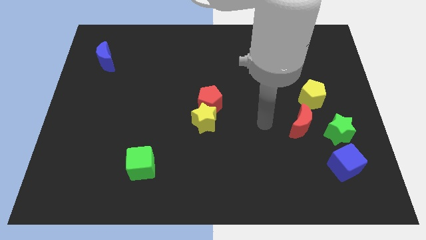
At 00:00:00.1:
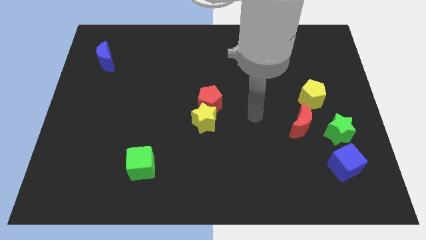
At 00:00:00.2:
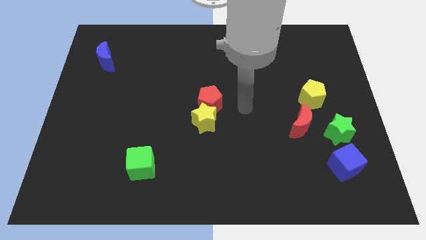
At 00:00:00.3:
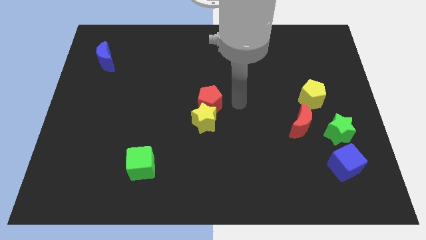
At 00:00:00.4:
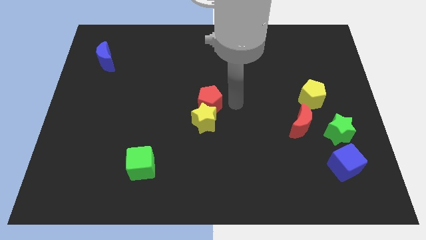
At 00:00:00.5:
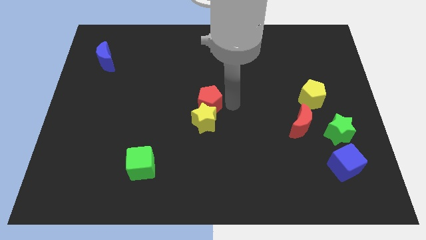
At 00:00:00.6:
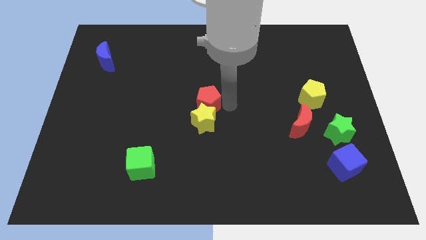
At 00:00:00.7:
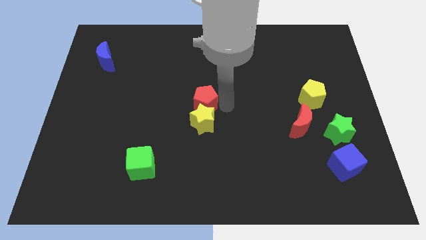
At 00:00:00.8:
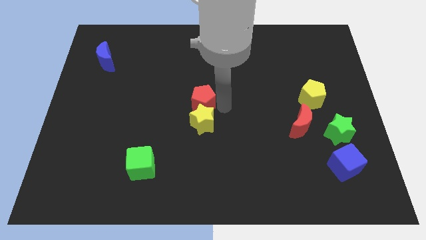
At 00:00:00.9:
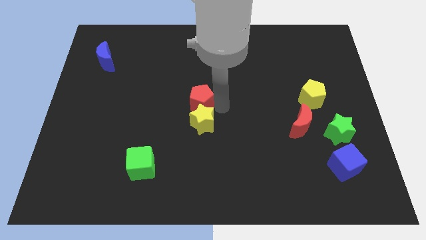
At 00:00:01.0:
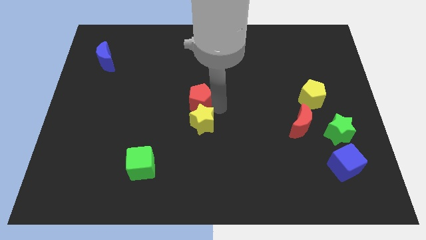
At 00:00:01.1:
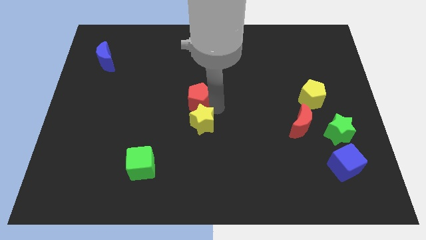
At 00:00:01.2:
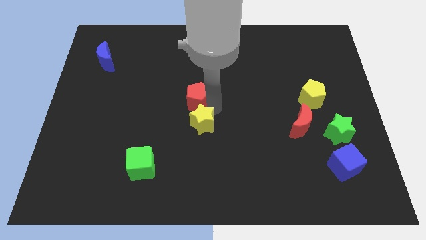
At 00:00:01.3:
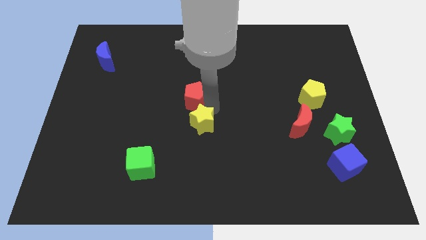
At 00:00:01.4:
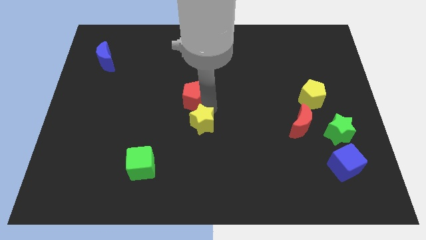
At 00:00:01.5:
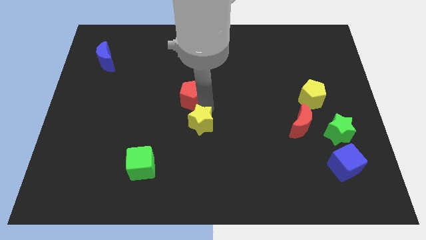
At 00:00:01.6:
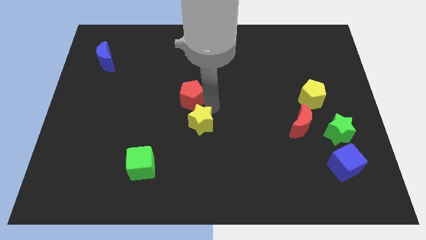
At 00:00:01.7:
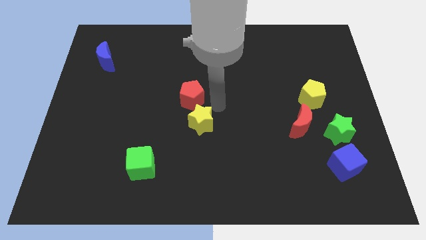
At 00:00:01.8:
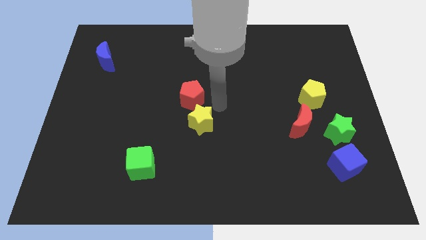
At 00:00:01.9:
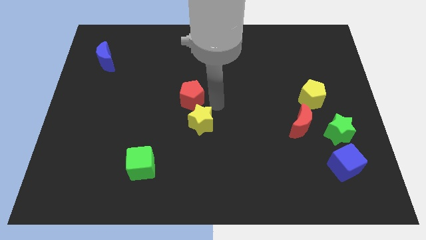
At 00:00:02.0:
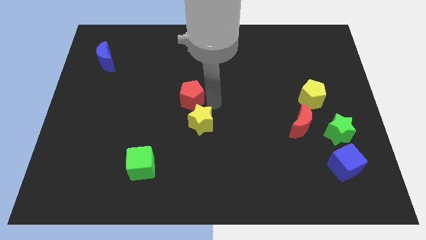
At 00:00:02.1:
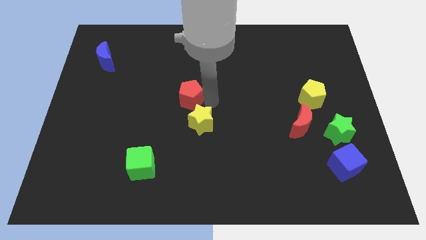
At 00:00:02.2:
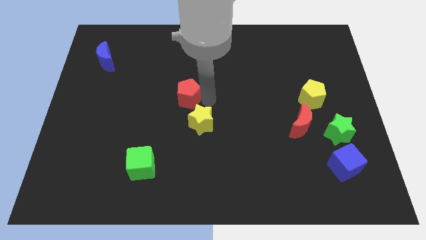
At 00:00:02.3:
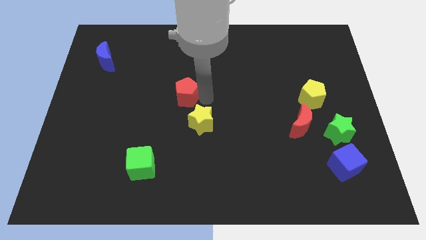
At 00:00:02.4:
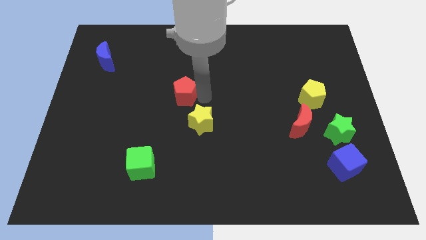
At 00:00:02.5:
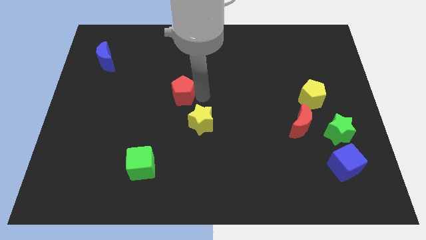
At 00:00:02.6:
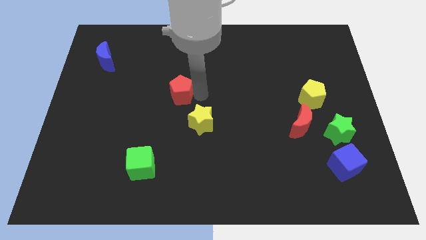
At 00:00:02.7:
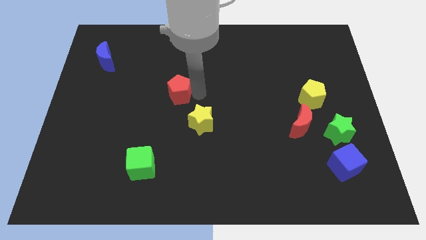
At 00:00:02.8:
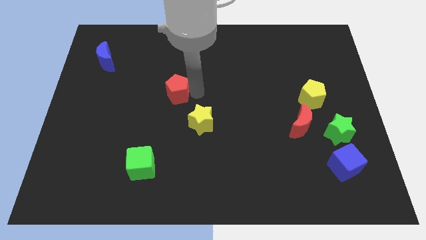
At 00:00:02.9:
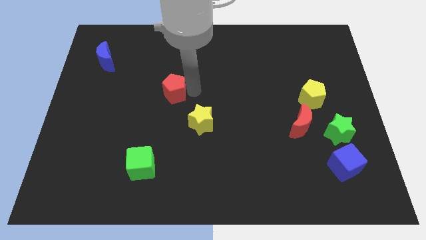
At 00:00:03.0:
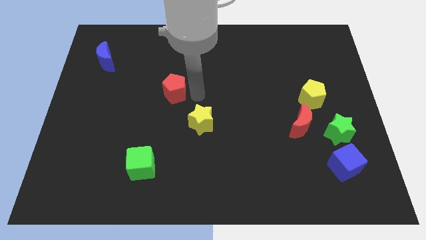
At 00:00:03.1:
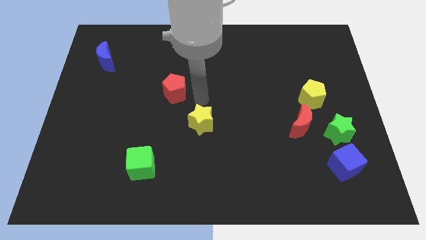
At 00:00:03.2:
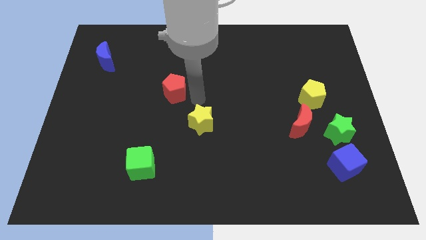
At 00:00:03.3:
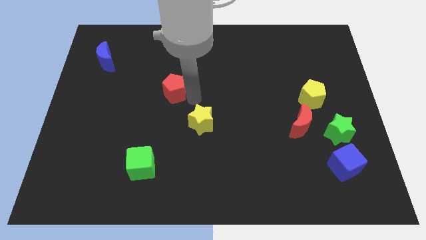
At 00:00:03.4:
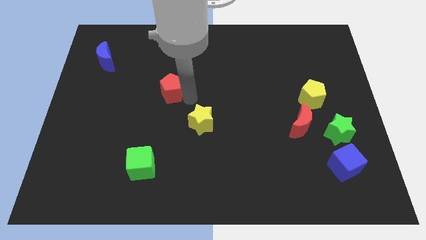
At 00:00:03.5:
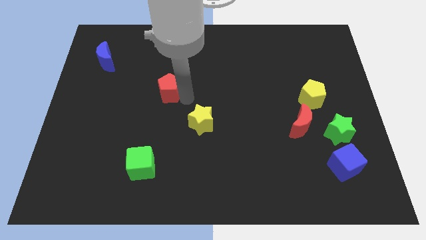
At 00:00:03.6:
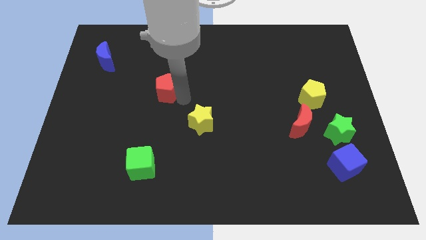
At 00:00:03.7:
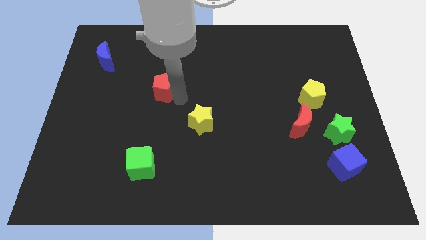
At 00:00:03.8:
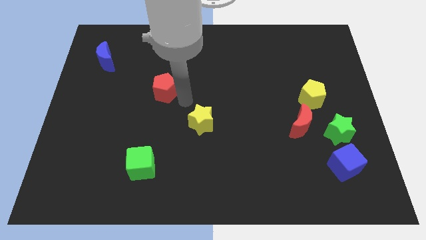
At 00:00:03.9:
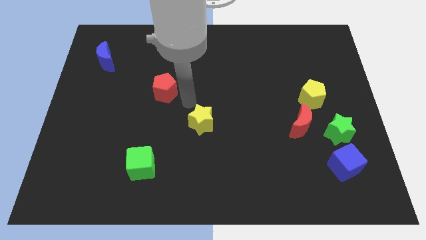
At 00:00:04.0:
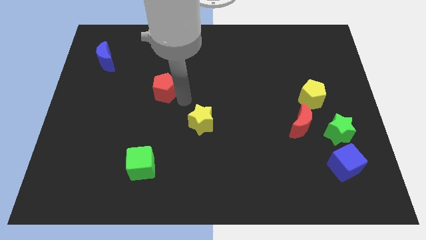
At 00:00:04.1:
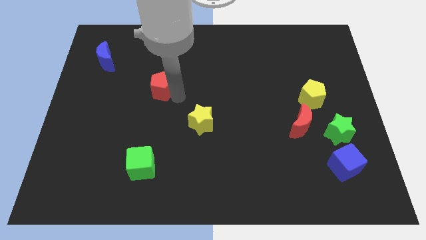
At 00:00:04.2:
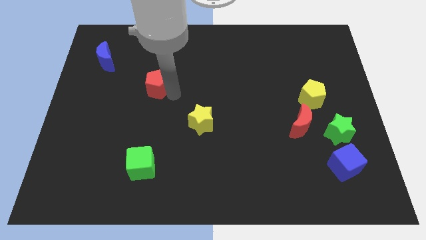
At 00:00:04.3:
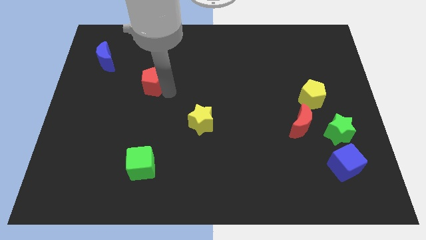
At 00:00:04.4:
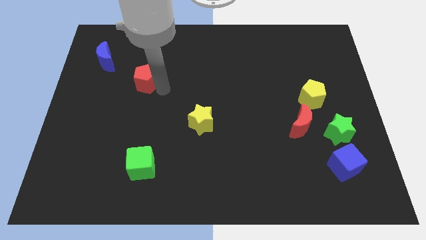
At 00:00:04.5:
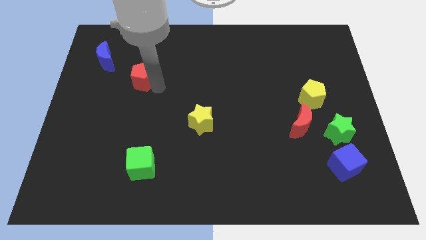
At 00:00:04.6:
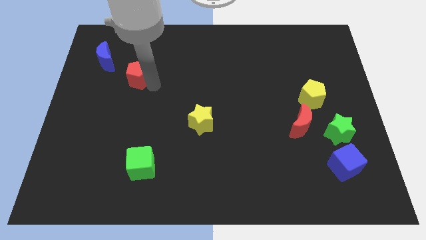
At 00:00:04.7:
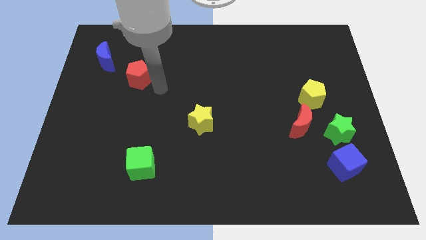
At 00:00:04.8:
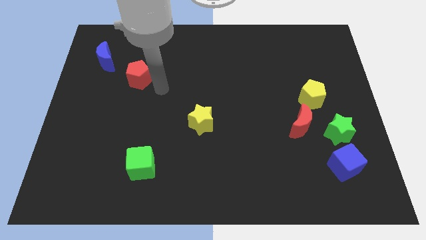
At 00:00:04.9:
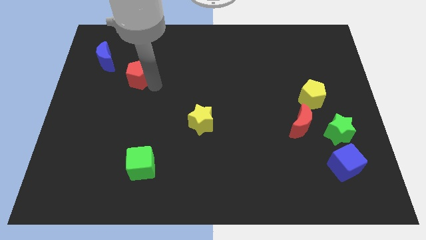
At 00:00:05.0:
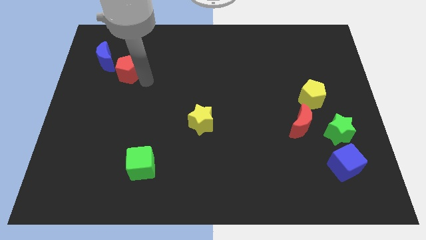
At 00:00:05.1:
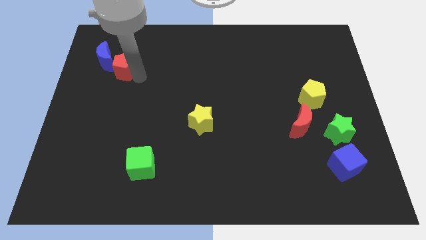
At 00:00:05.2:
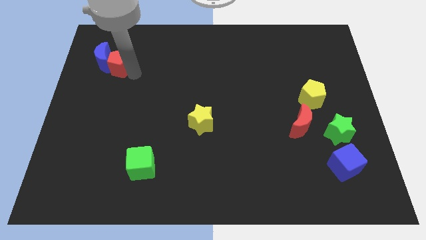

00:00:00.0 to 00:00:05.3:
put the red pentagon to the blue moon

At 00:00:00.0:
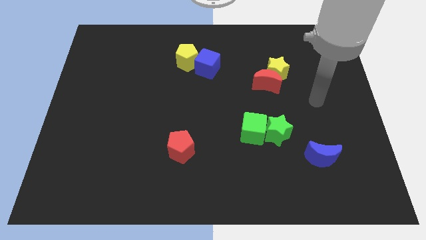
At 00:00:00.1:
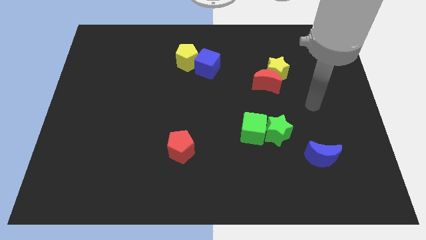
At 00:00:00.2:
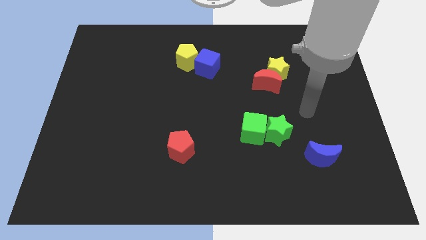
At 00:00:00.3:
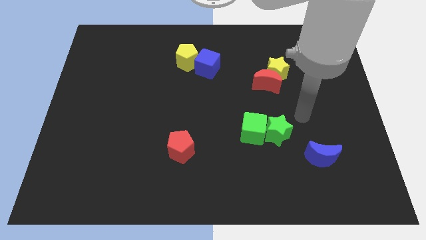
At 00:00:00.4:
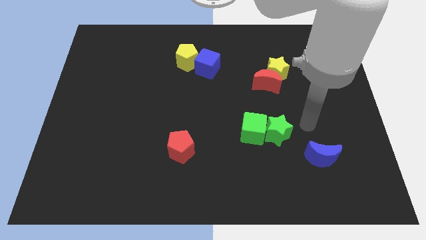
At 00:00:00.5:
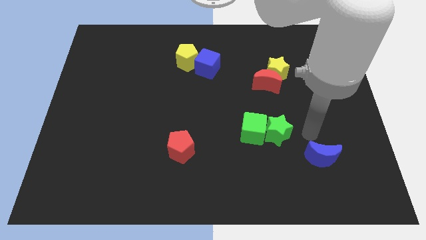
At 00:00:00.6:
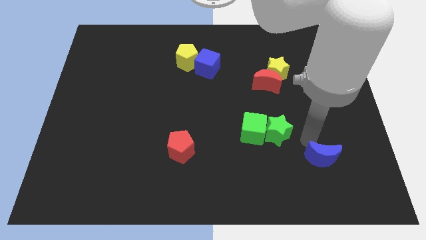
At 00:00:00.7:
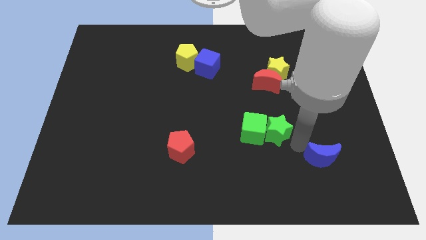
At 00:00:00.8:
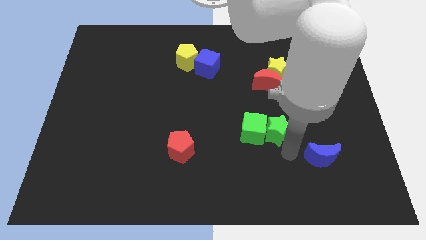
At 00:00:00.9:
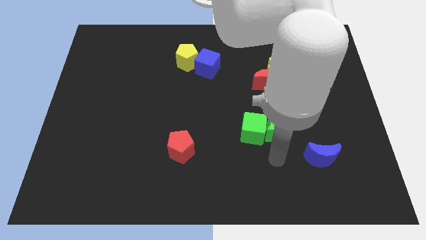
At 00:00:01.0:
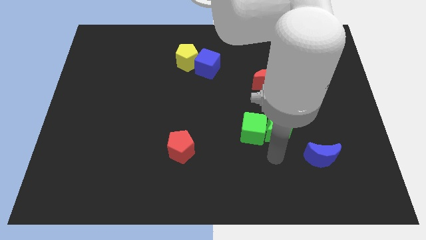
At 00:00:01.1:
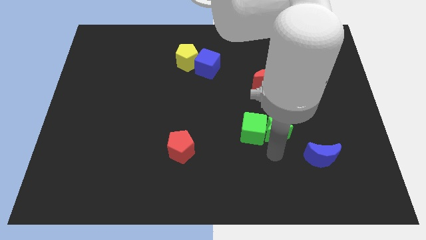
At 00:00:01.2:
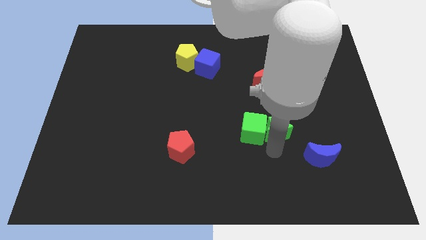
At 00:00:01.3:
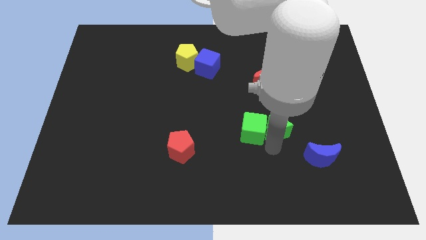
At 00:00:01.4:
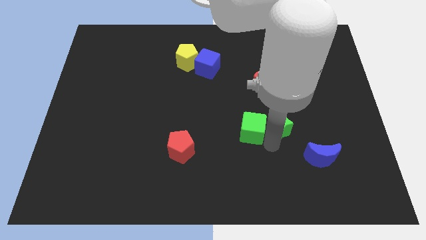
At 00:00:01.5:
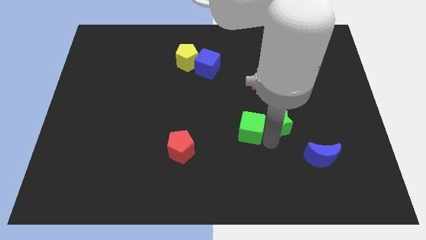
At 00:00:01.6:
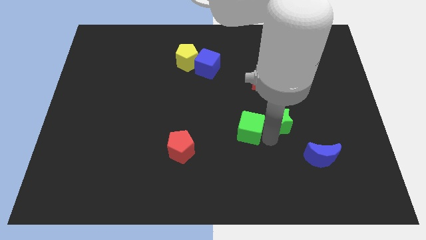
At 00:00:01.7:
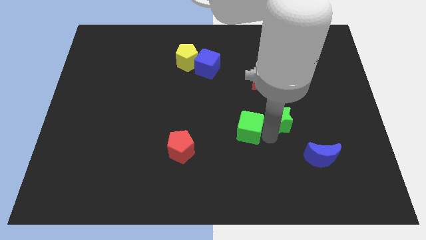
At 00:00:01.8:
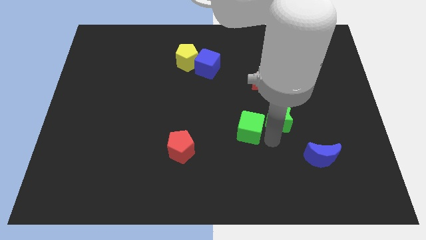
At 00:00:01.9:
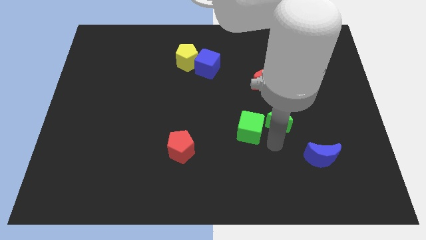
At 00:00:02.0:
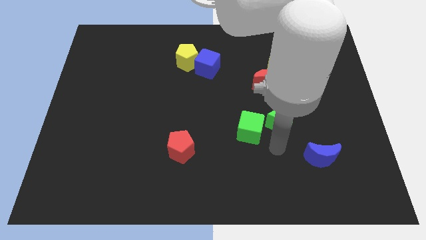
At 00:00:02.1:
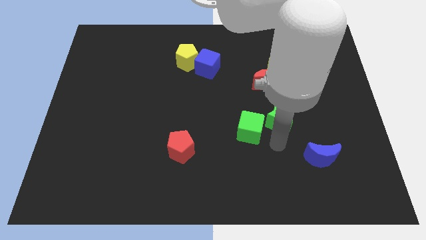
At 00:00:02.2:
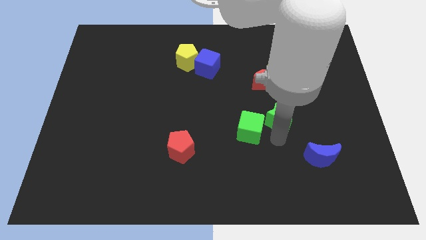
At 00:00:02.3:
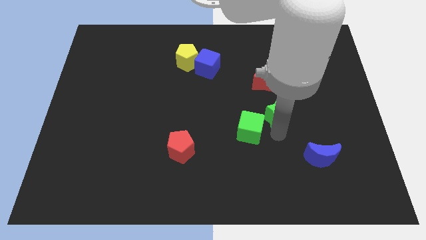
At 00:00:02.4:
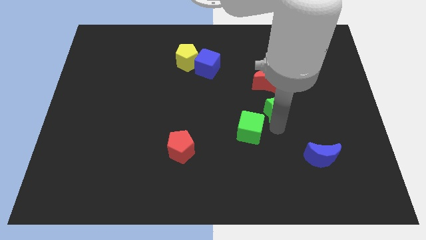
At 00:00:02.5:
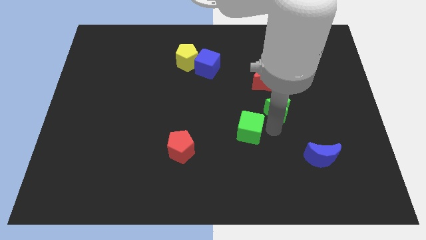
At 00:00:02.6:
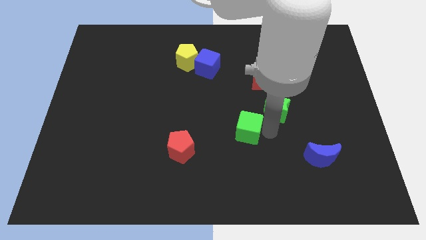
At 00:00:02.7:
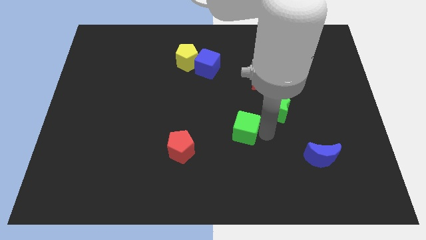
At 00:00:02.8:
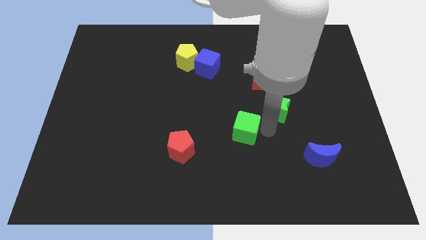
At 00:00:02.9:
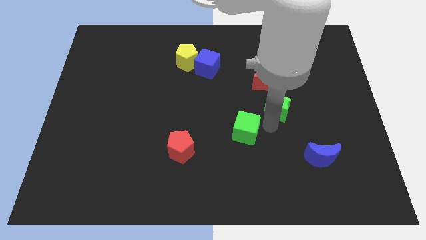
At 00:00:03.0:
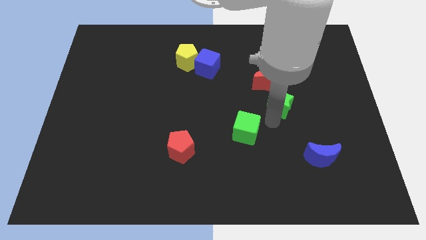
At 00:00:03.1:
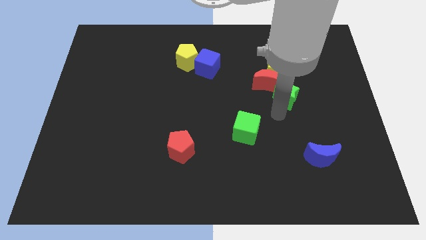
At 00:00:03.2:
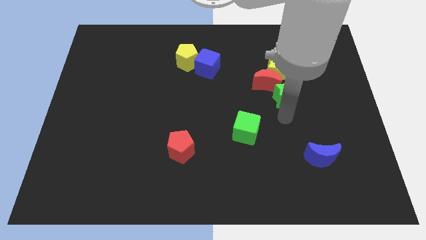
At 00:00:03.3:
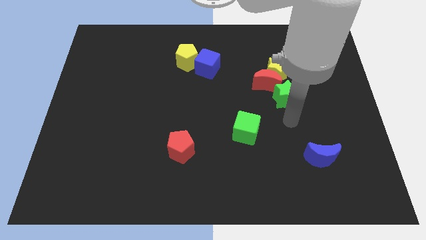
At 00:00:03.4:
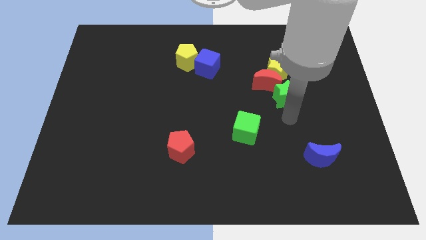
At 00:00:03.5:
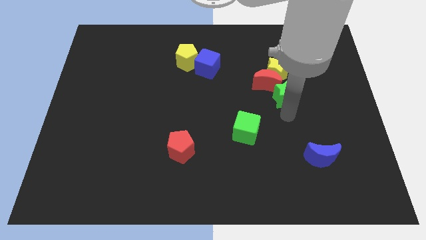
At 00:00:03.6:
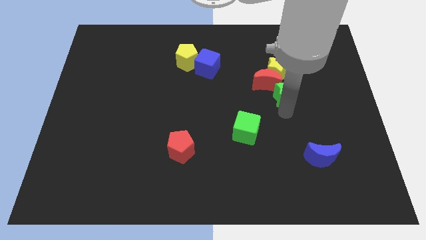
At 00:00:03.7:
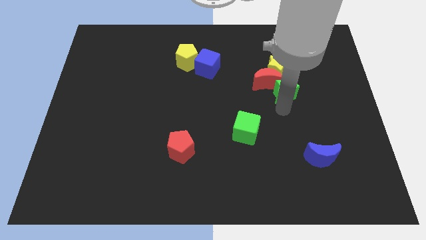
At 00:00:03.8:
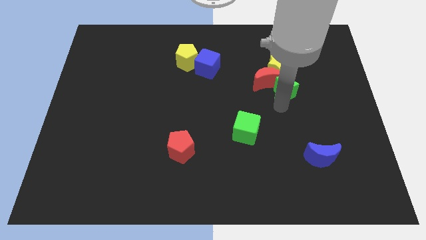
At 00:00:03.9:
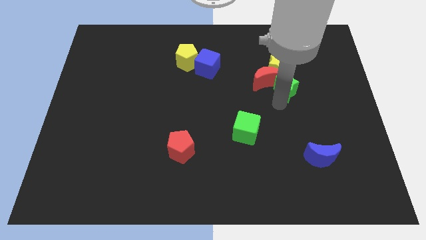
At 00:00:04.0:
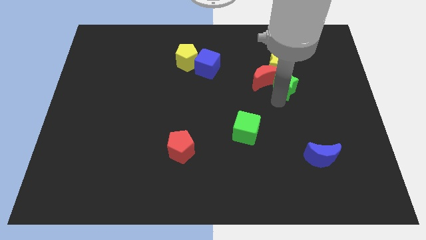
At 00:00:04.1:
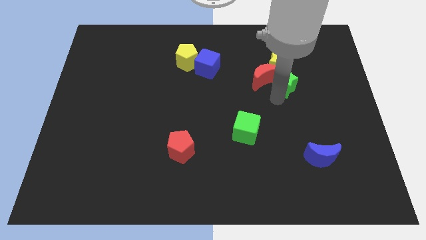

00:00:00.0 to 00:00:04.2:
move the green star to the yellow star
